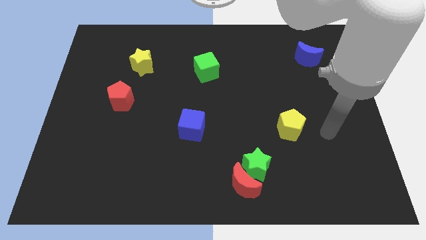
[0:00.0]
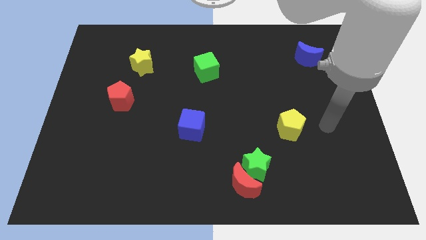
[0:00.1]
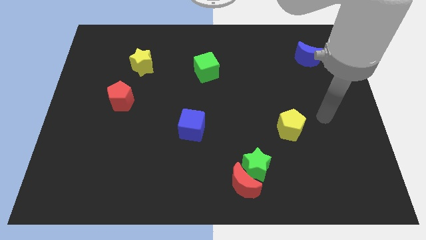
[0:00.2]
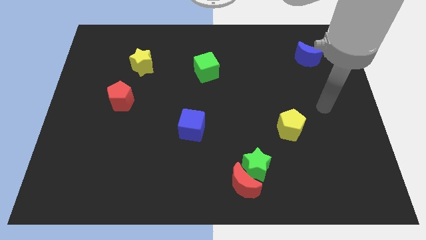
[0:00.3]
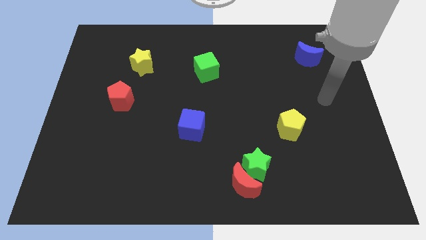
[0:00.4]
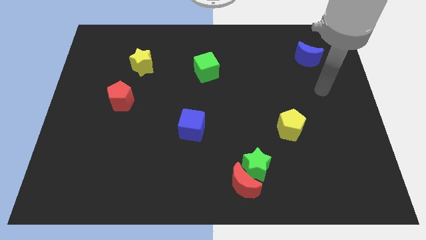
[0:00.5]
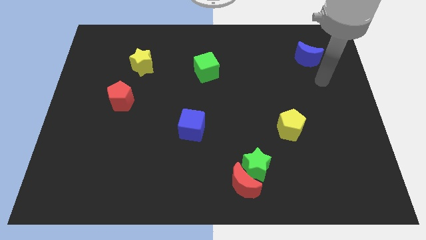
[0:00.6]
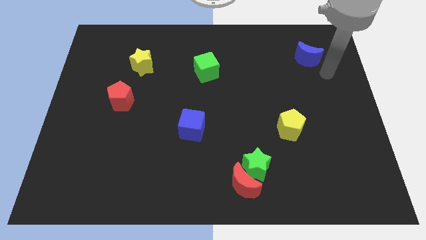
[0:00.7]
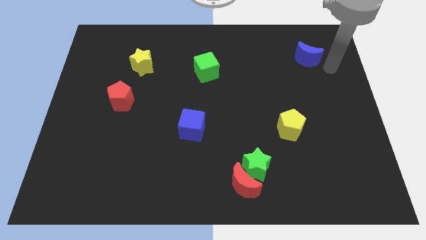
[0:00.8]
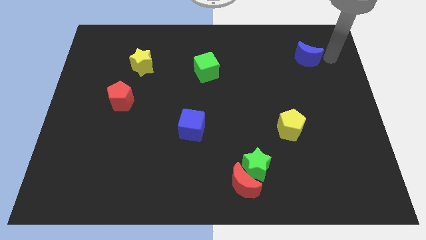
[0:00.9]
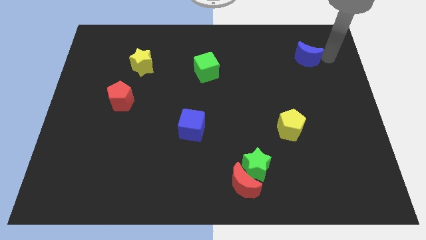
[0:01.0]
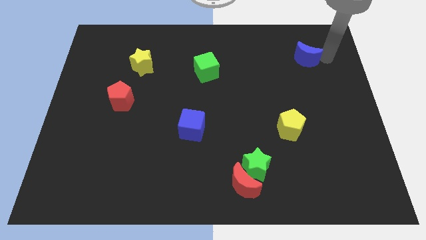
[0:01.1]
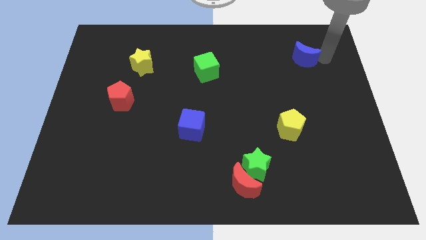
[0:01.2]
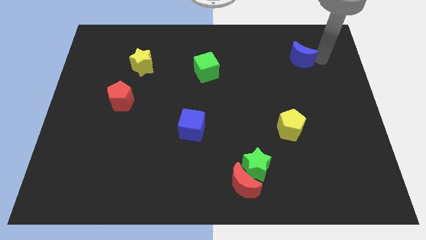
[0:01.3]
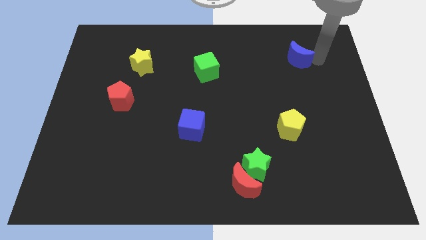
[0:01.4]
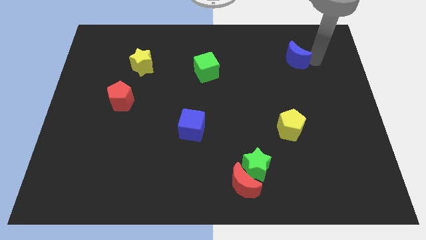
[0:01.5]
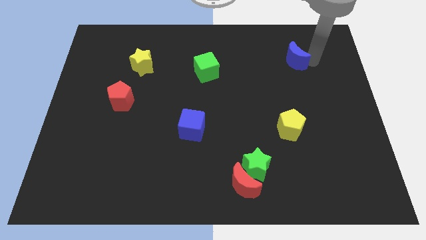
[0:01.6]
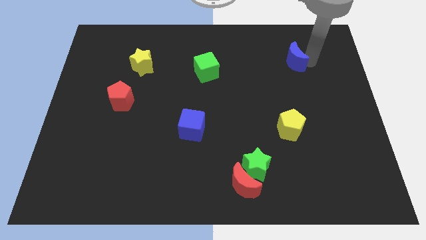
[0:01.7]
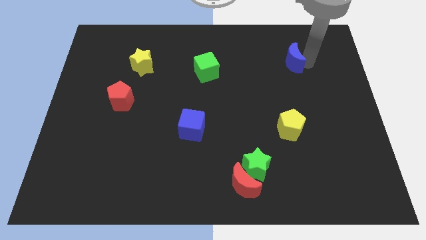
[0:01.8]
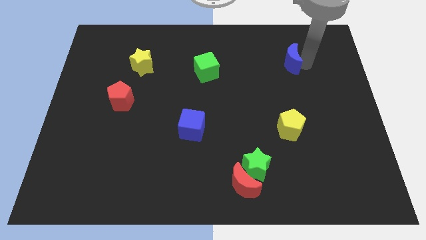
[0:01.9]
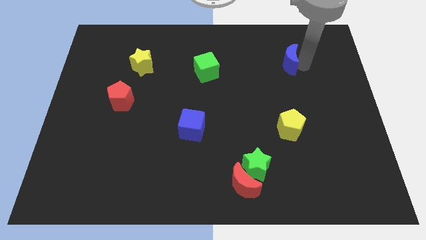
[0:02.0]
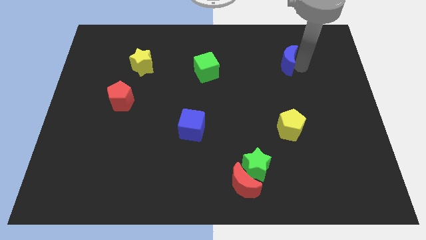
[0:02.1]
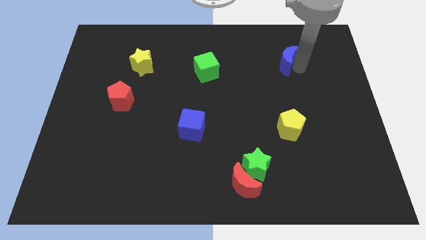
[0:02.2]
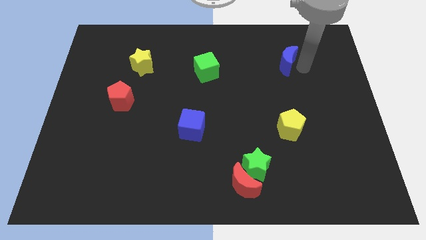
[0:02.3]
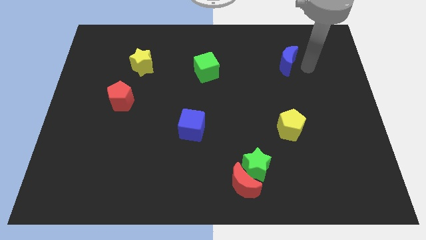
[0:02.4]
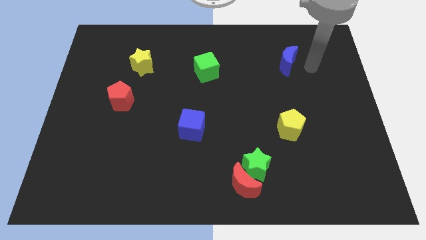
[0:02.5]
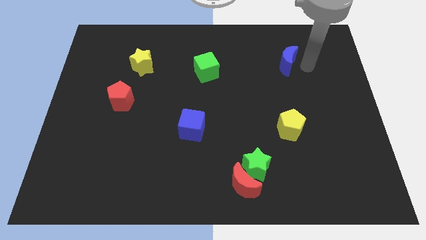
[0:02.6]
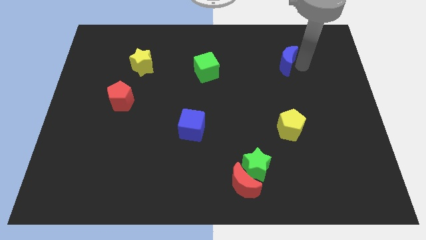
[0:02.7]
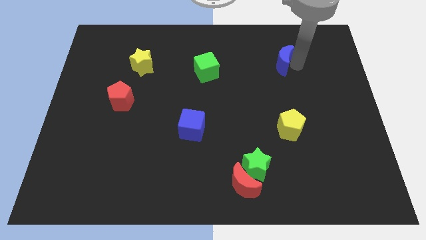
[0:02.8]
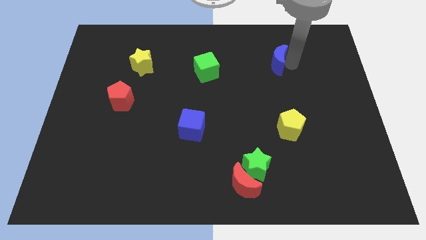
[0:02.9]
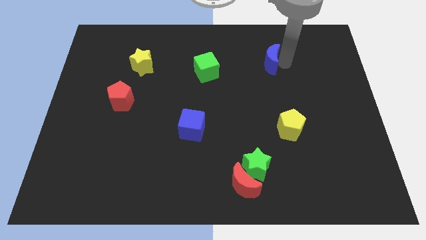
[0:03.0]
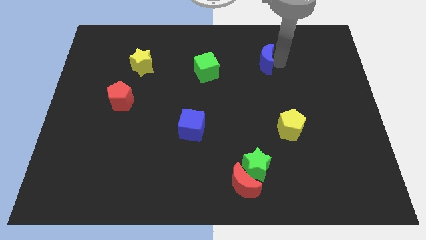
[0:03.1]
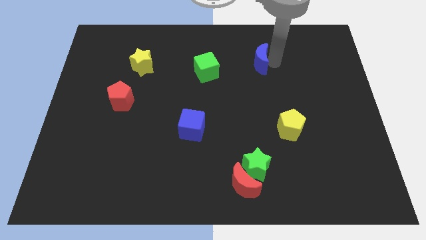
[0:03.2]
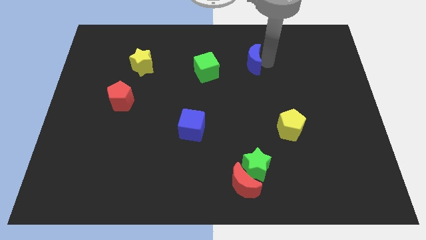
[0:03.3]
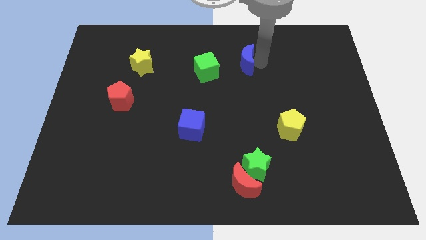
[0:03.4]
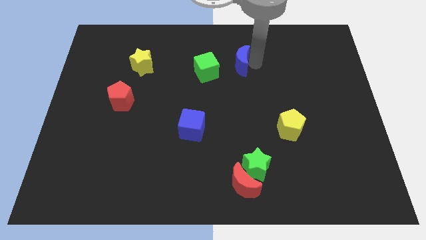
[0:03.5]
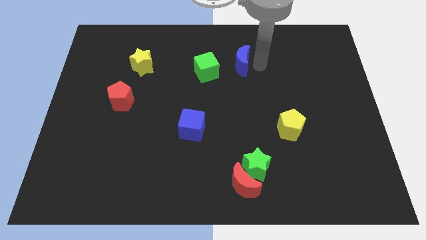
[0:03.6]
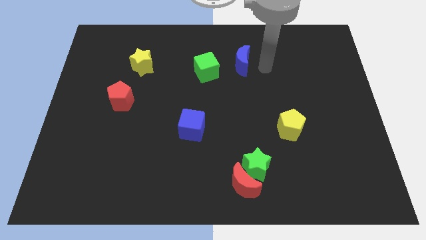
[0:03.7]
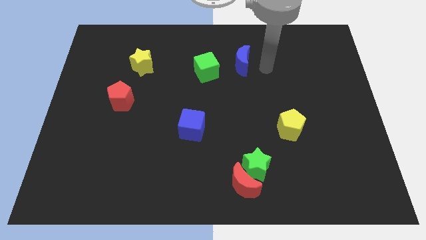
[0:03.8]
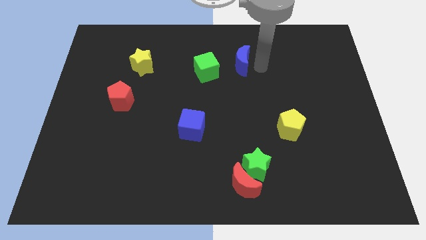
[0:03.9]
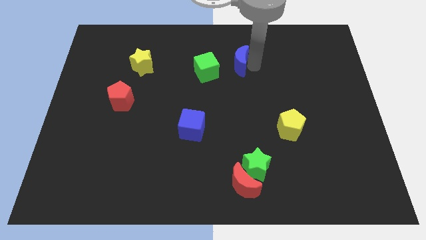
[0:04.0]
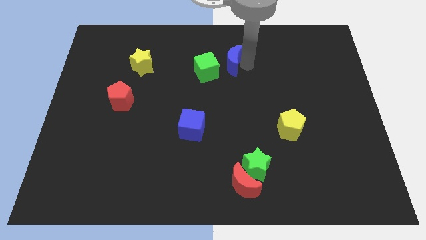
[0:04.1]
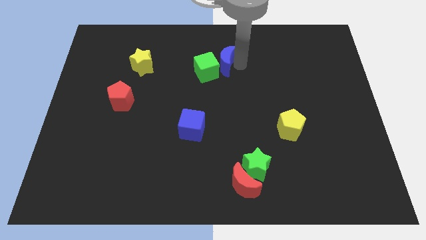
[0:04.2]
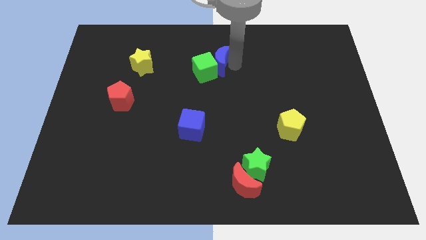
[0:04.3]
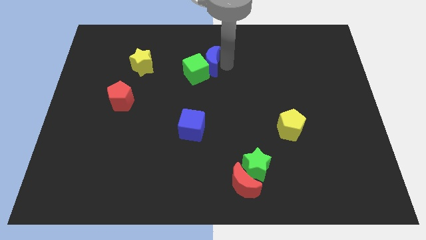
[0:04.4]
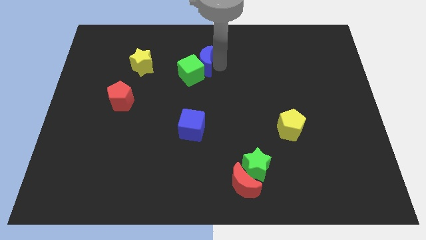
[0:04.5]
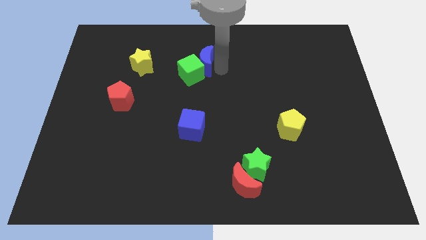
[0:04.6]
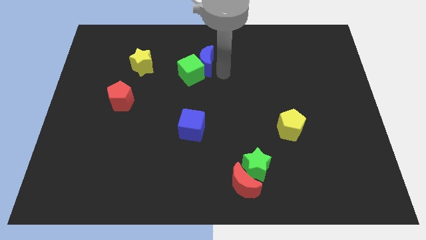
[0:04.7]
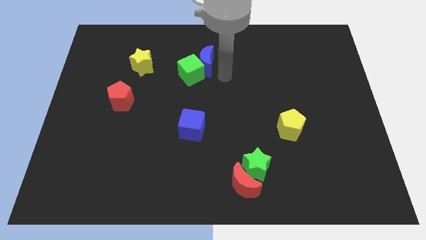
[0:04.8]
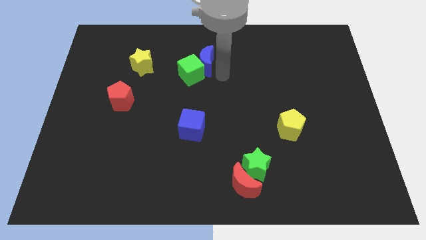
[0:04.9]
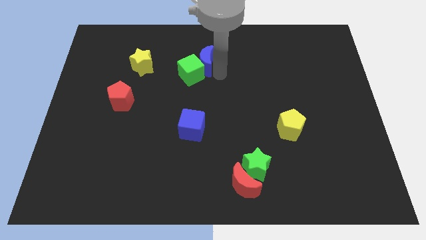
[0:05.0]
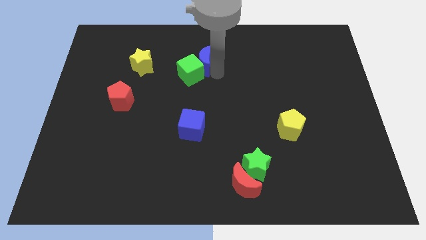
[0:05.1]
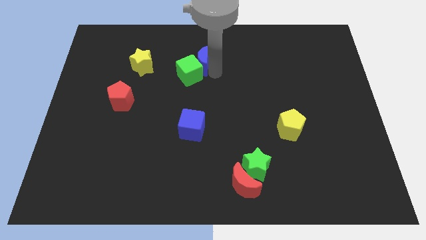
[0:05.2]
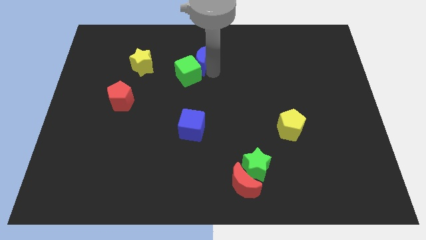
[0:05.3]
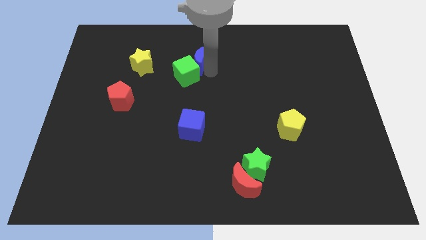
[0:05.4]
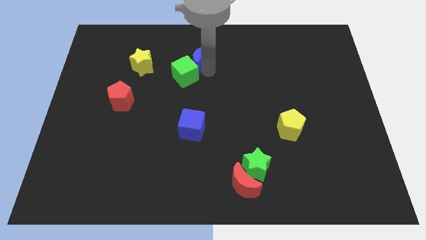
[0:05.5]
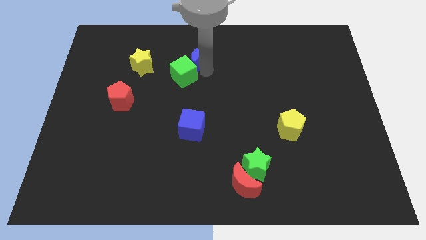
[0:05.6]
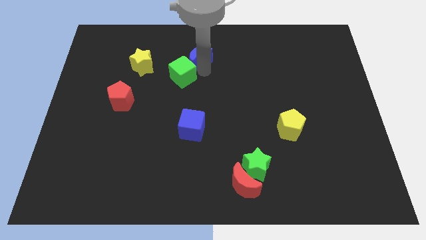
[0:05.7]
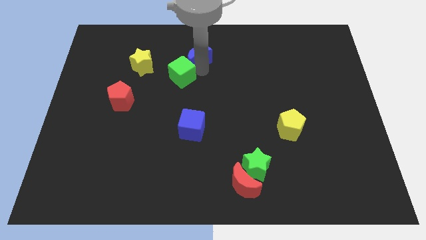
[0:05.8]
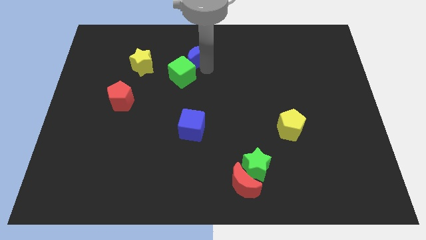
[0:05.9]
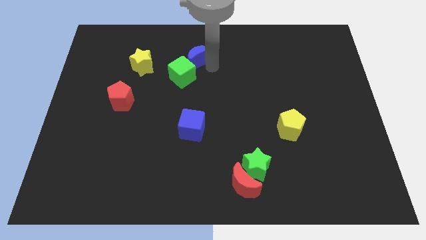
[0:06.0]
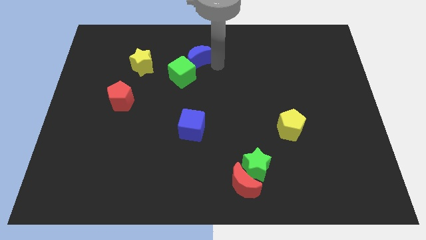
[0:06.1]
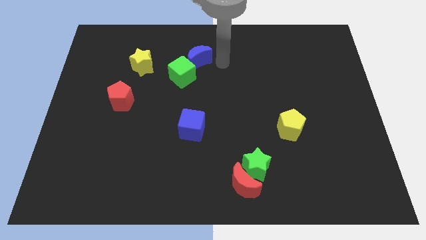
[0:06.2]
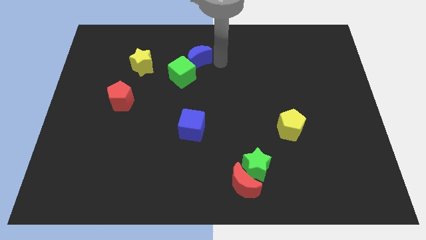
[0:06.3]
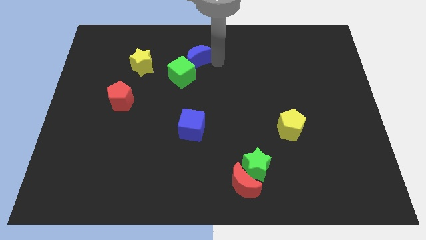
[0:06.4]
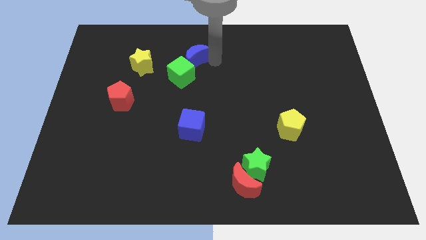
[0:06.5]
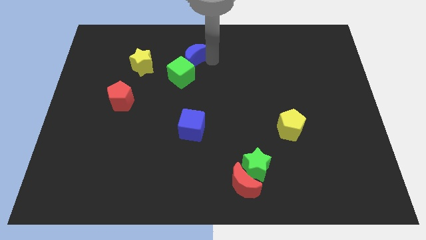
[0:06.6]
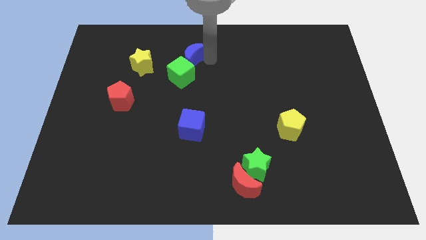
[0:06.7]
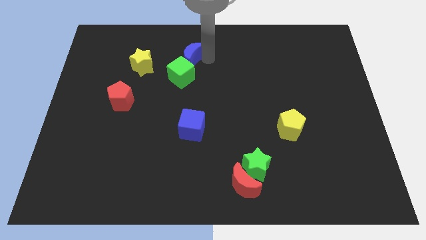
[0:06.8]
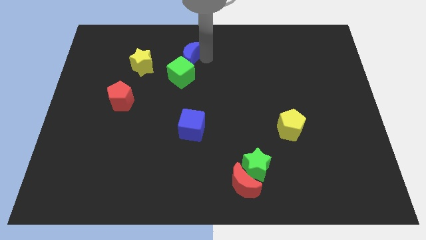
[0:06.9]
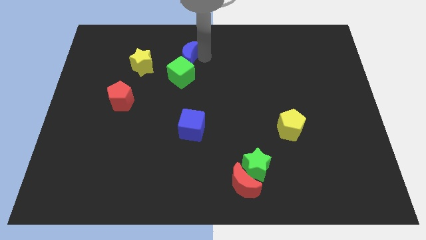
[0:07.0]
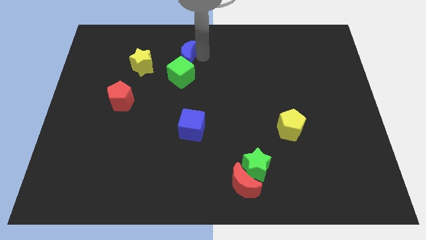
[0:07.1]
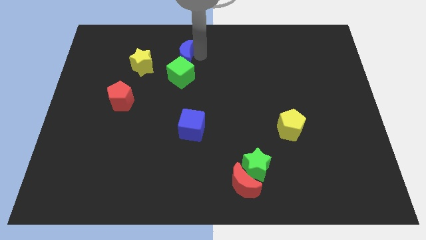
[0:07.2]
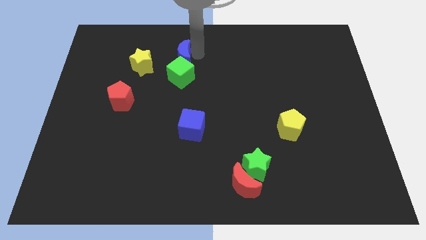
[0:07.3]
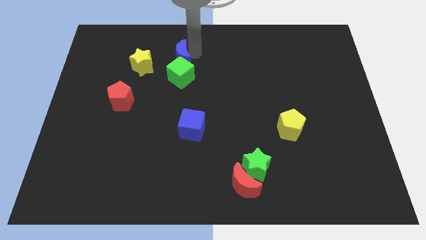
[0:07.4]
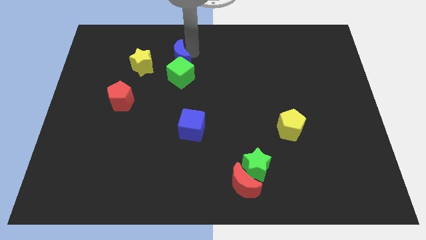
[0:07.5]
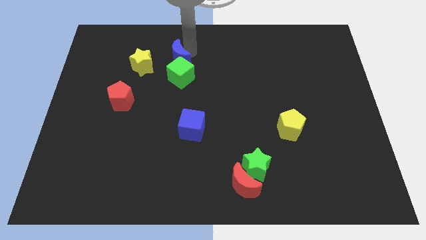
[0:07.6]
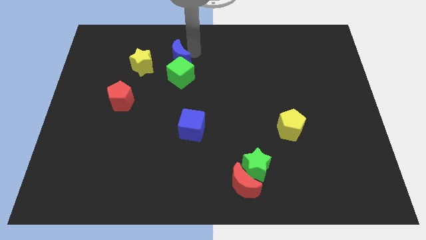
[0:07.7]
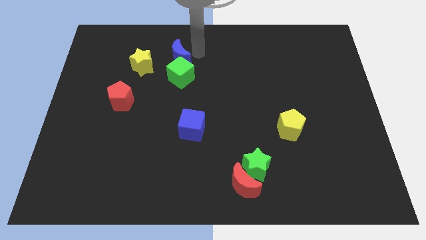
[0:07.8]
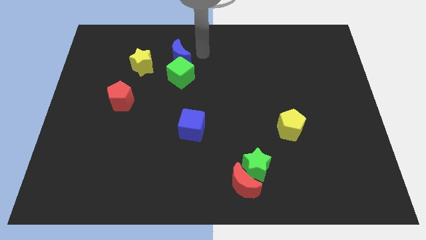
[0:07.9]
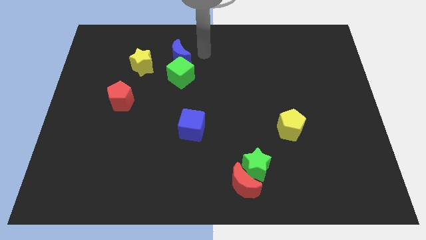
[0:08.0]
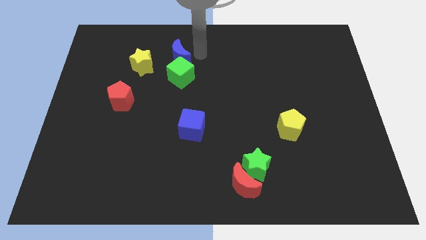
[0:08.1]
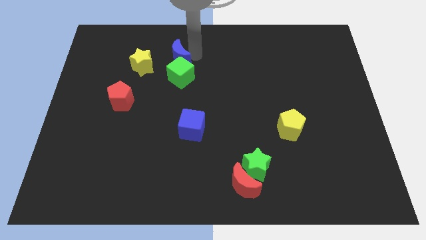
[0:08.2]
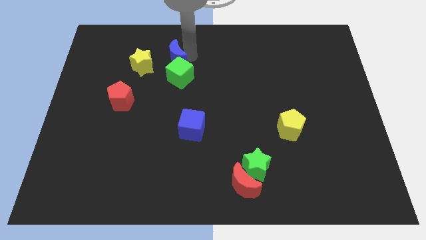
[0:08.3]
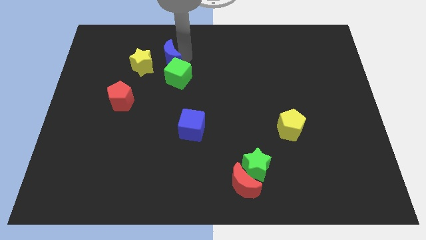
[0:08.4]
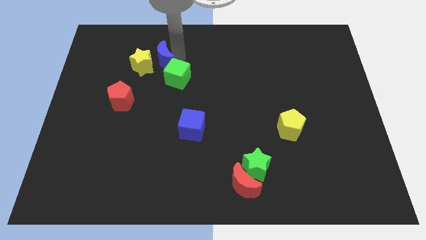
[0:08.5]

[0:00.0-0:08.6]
push the blue moon close to the yellow star
